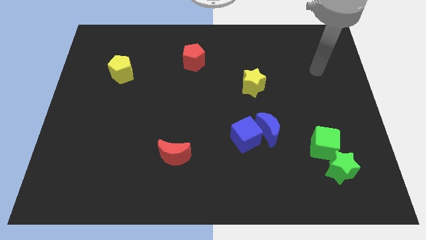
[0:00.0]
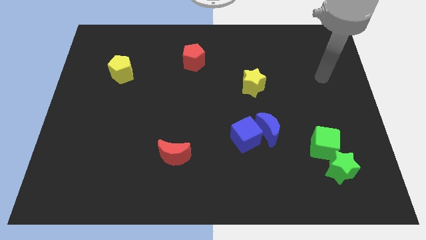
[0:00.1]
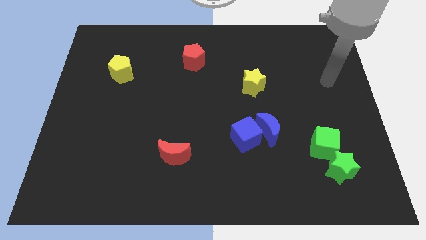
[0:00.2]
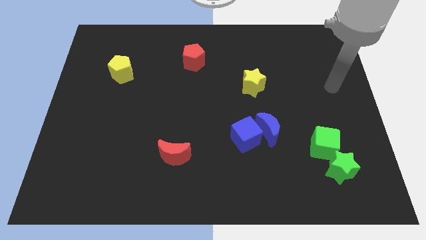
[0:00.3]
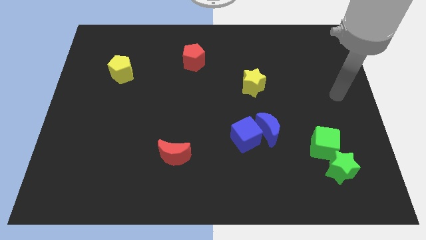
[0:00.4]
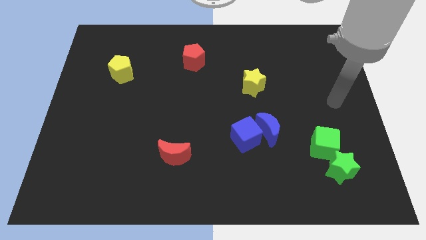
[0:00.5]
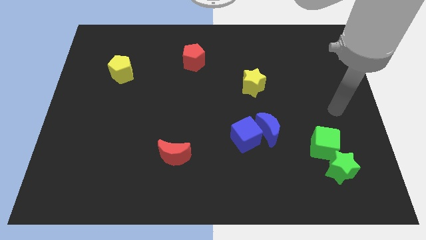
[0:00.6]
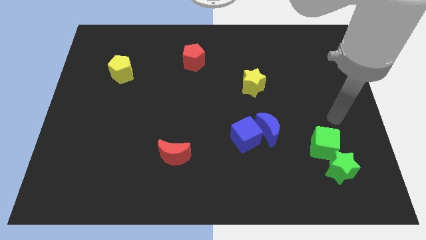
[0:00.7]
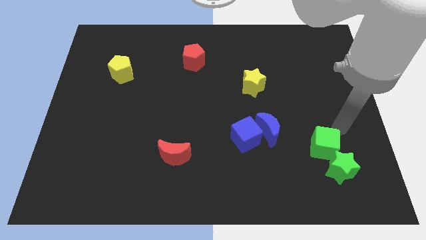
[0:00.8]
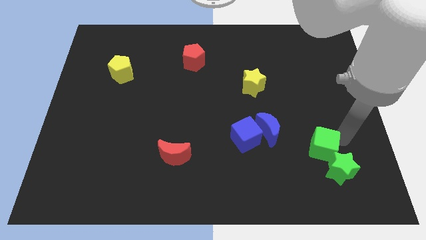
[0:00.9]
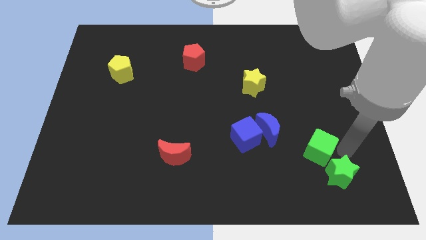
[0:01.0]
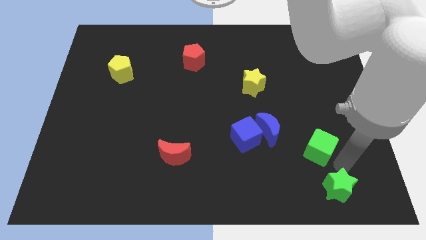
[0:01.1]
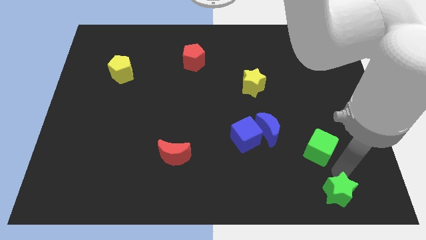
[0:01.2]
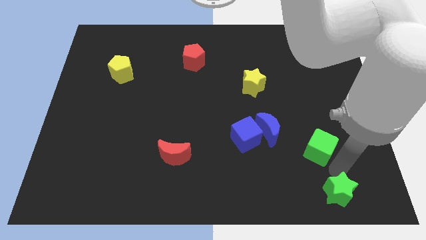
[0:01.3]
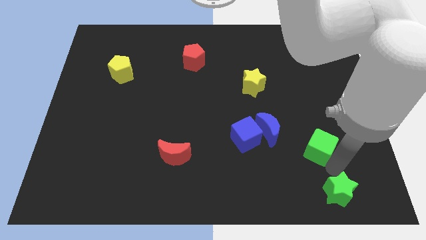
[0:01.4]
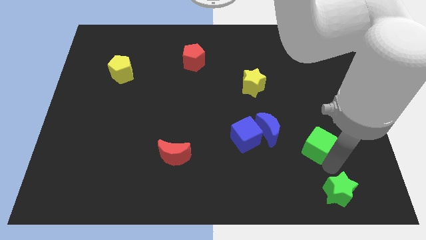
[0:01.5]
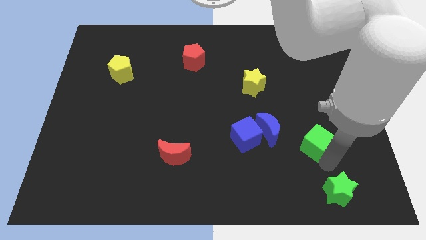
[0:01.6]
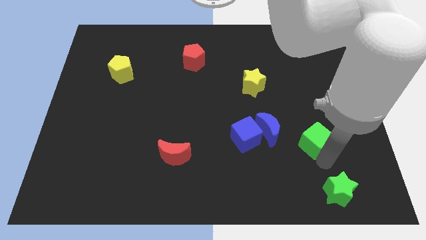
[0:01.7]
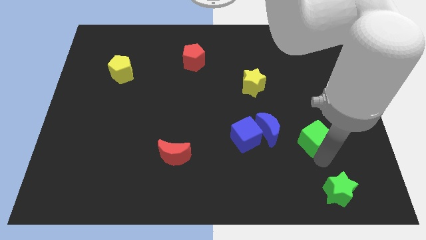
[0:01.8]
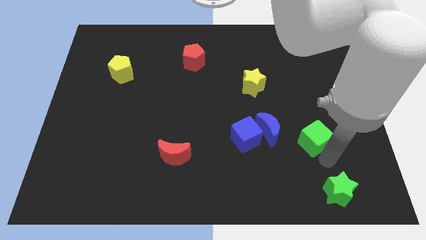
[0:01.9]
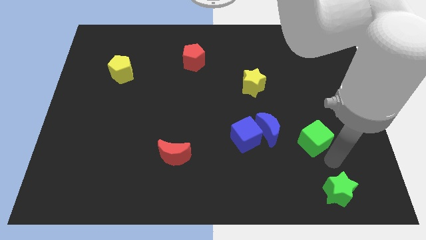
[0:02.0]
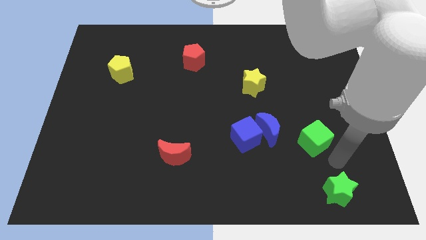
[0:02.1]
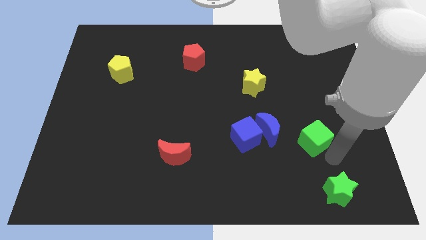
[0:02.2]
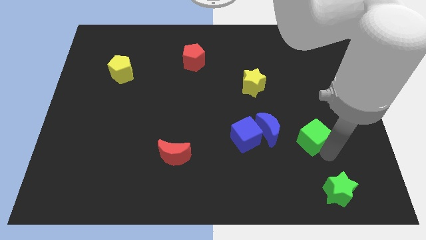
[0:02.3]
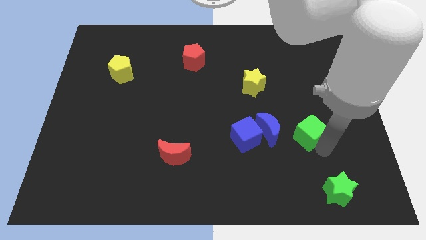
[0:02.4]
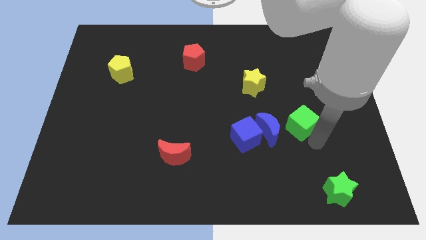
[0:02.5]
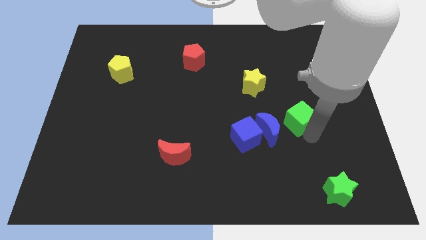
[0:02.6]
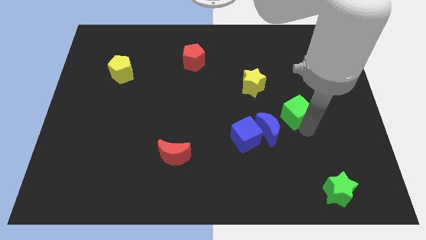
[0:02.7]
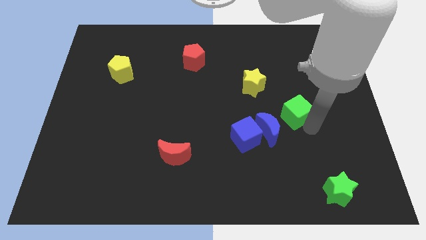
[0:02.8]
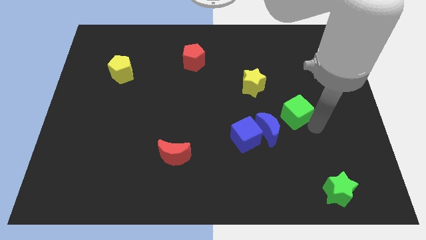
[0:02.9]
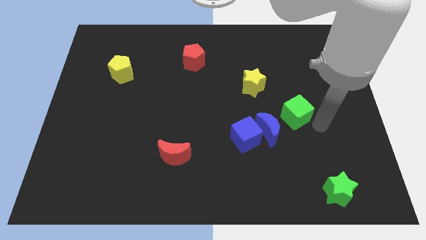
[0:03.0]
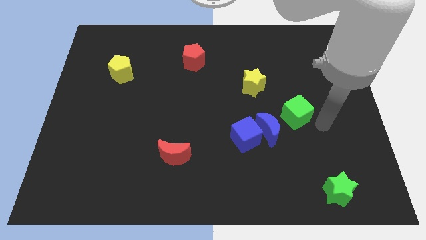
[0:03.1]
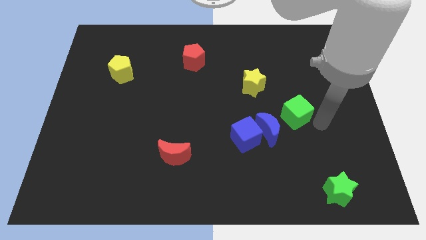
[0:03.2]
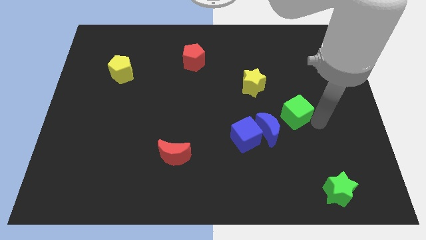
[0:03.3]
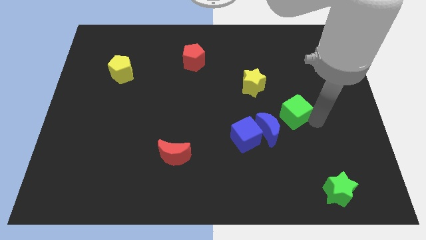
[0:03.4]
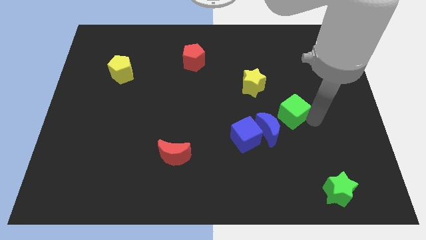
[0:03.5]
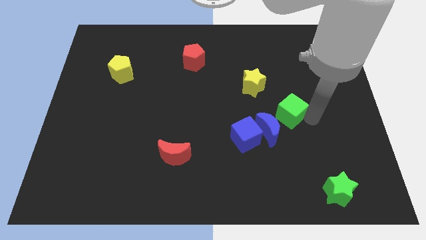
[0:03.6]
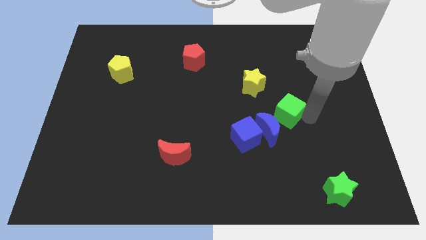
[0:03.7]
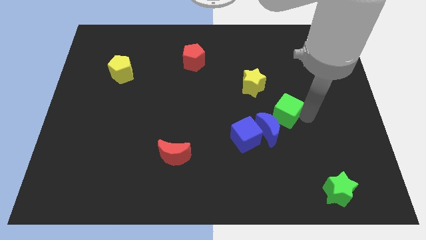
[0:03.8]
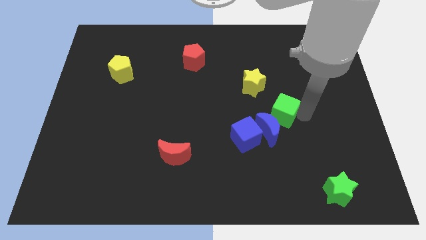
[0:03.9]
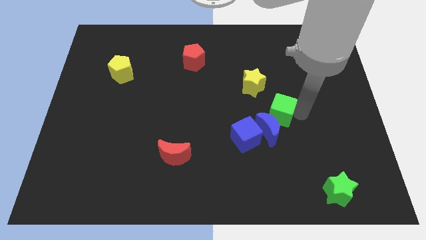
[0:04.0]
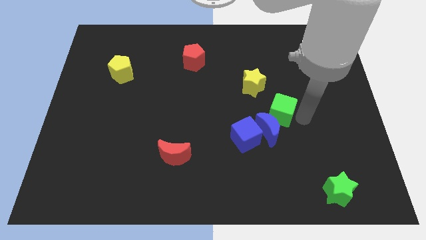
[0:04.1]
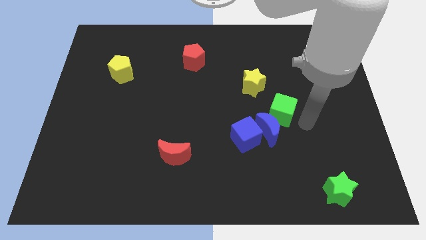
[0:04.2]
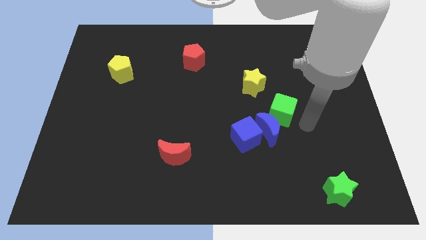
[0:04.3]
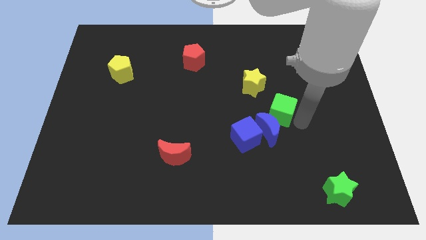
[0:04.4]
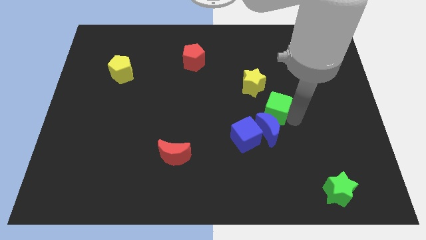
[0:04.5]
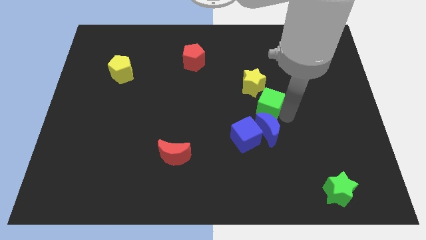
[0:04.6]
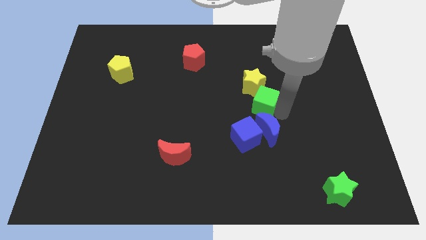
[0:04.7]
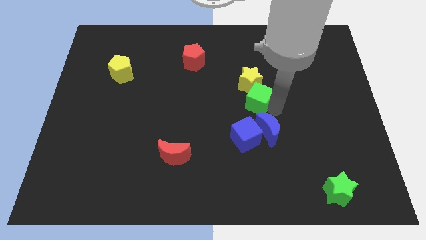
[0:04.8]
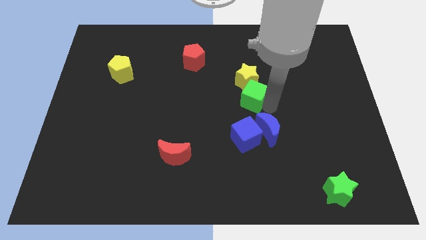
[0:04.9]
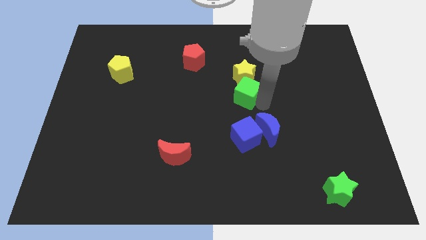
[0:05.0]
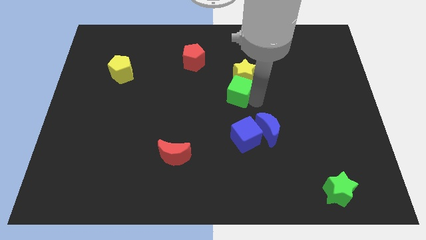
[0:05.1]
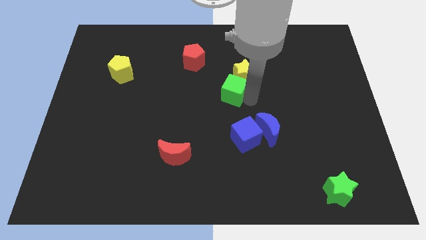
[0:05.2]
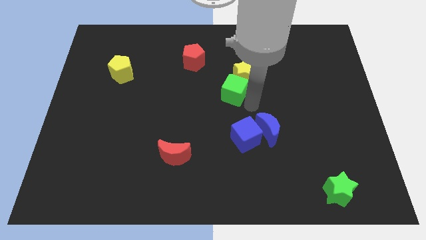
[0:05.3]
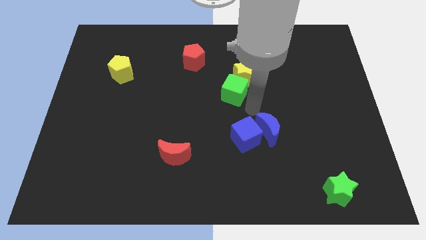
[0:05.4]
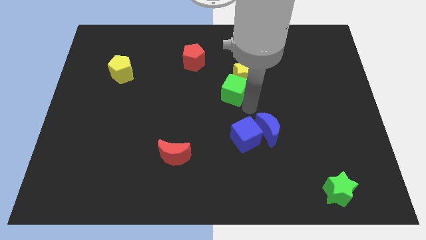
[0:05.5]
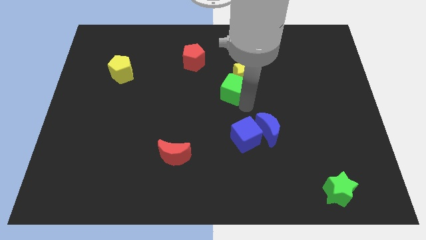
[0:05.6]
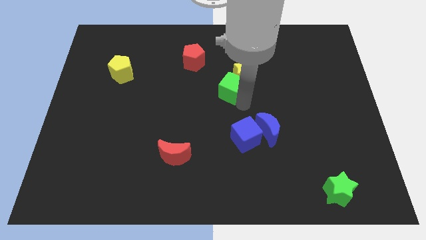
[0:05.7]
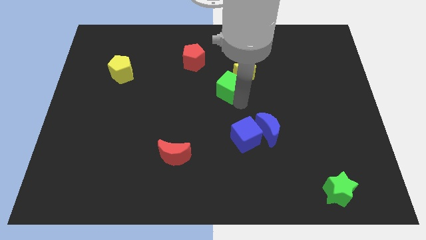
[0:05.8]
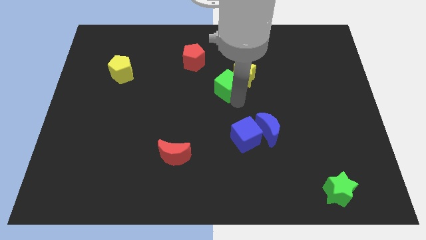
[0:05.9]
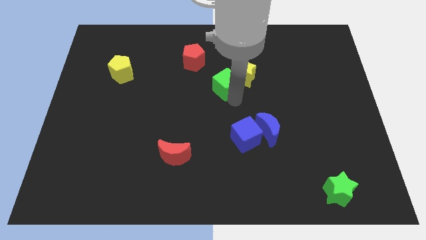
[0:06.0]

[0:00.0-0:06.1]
slide the green cube to the bottom right of the red pentagon

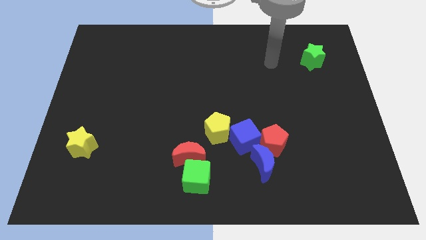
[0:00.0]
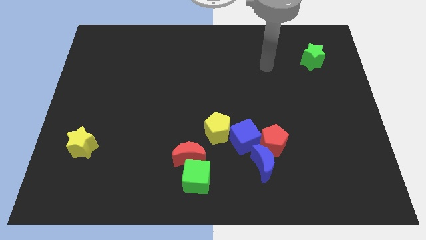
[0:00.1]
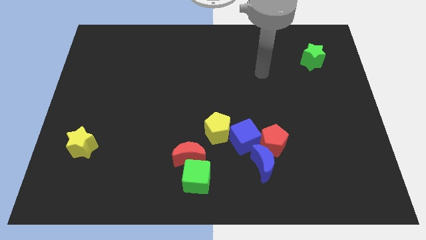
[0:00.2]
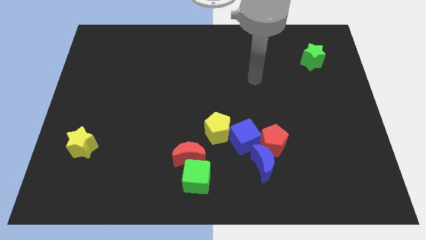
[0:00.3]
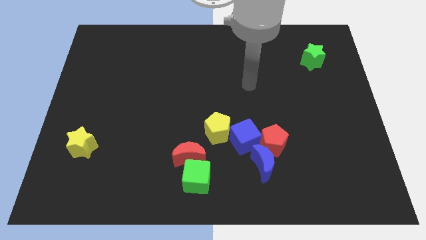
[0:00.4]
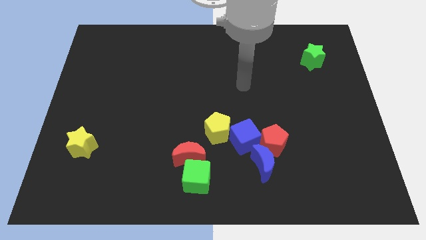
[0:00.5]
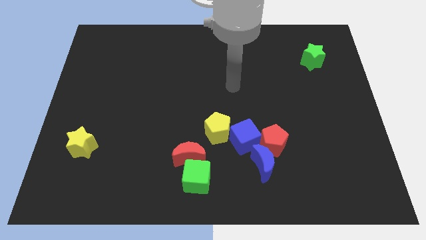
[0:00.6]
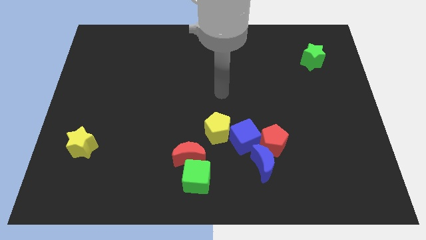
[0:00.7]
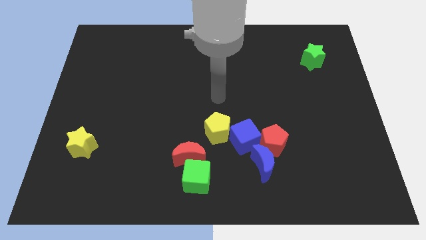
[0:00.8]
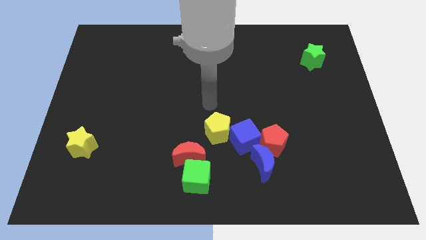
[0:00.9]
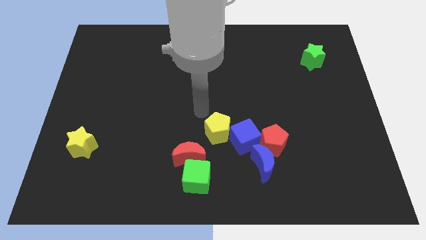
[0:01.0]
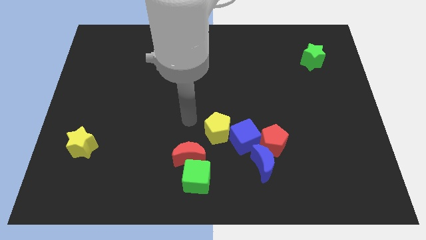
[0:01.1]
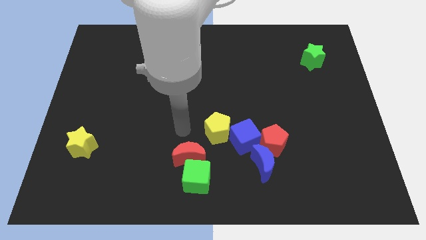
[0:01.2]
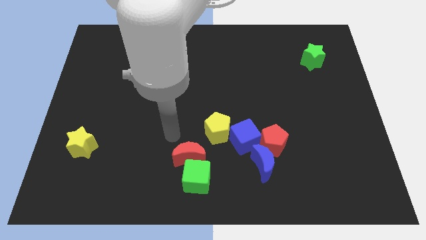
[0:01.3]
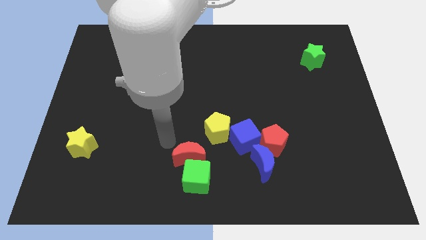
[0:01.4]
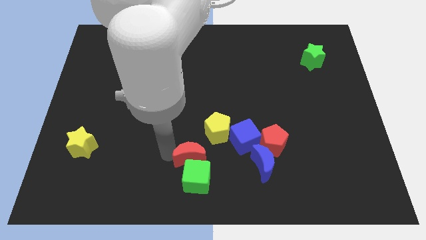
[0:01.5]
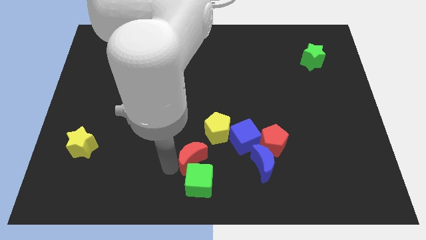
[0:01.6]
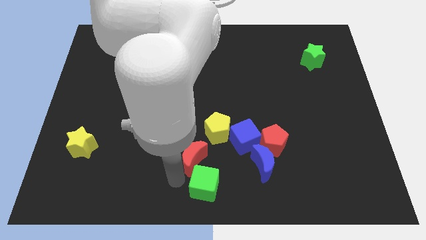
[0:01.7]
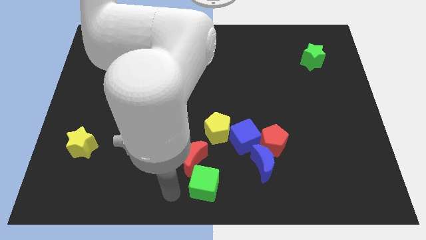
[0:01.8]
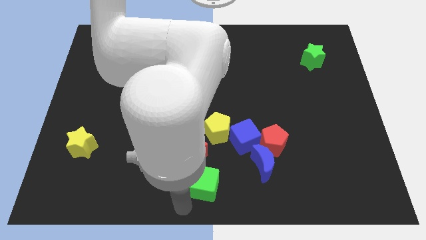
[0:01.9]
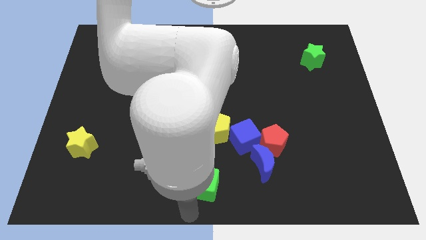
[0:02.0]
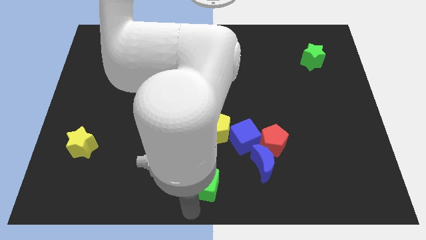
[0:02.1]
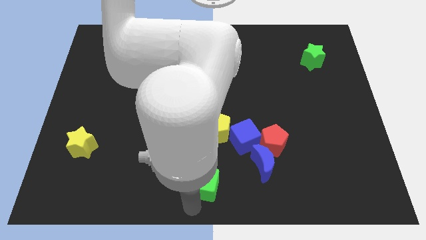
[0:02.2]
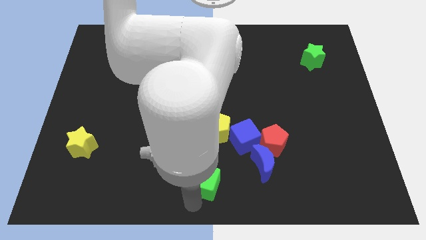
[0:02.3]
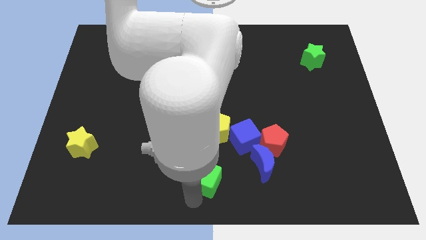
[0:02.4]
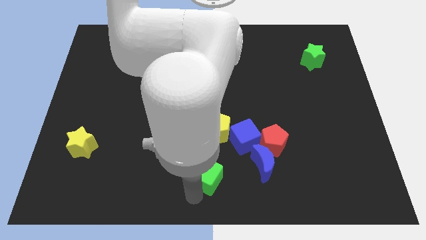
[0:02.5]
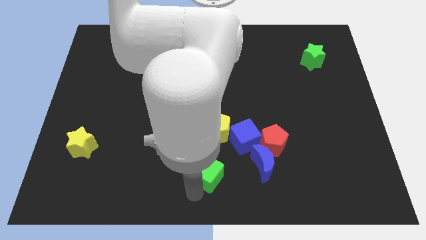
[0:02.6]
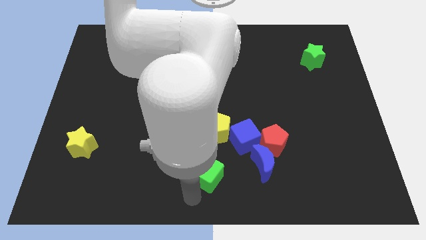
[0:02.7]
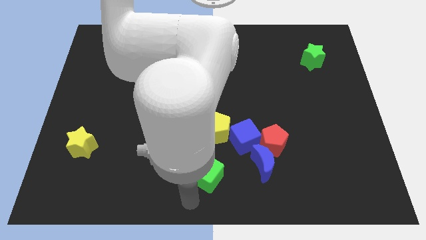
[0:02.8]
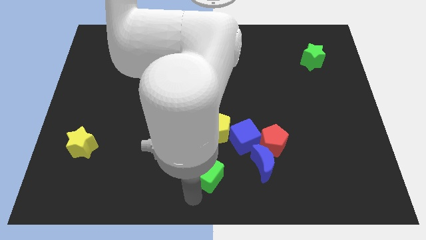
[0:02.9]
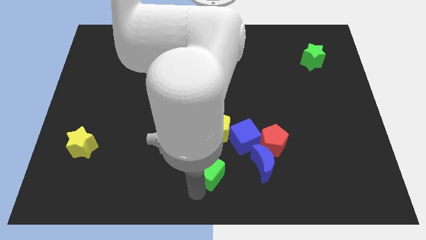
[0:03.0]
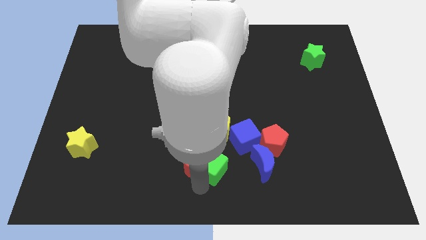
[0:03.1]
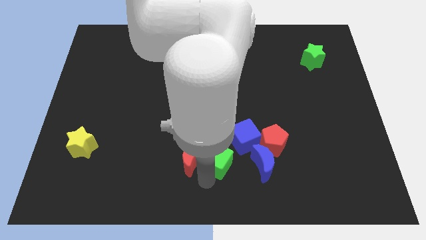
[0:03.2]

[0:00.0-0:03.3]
push the green cube to the left side of the red pentagon
